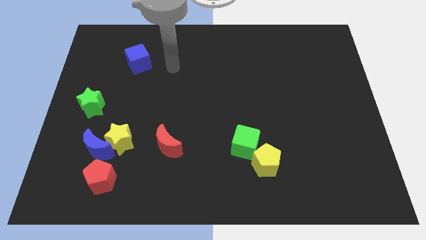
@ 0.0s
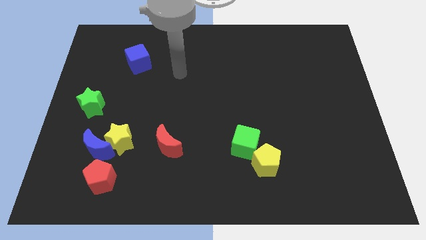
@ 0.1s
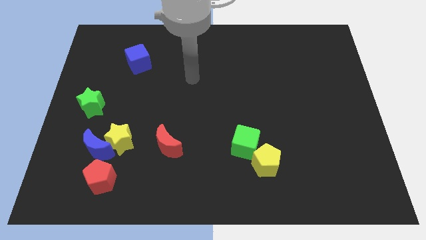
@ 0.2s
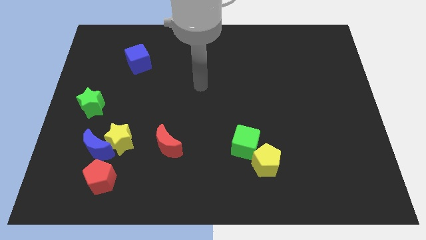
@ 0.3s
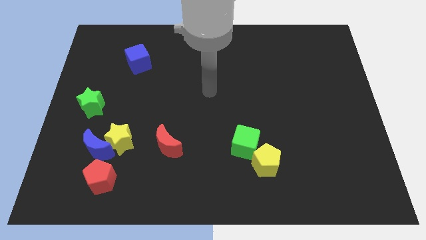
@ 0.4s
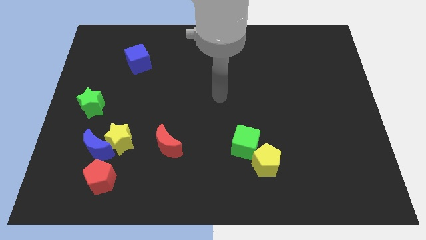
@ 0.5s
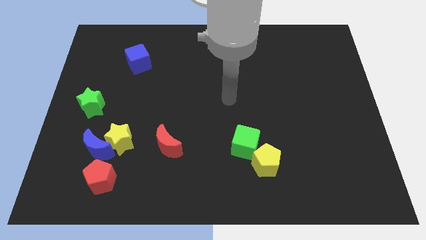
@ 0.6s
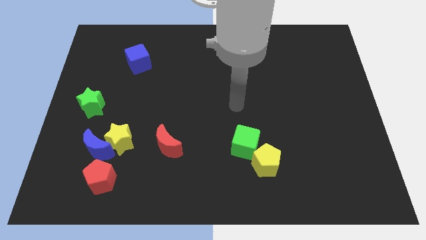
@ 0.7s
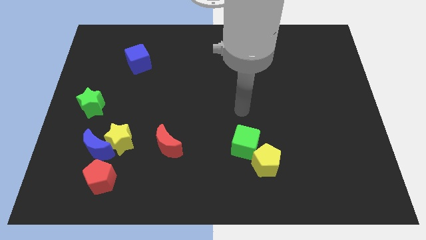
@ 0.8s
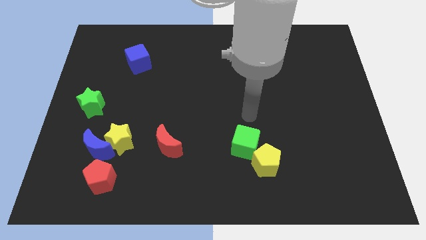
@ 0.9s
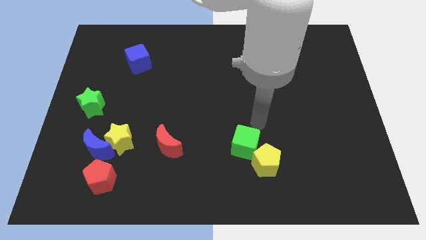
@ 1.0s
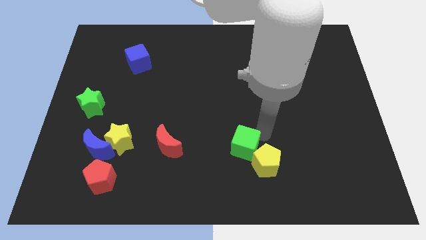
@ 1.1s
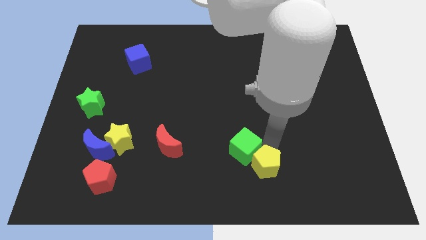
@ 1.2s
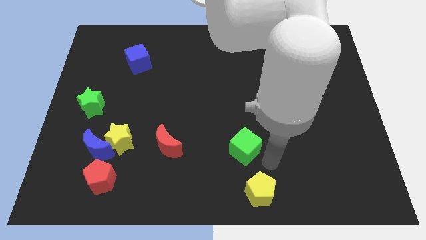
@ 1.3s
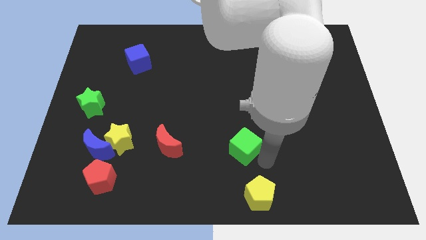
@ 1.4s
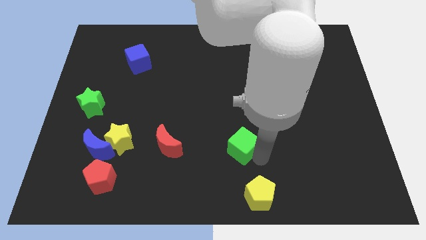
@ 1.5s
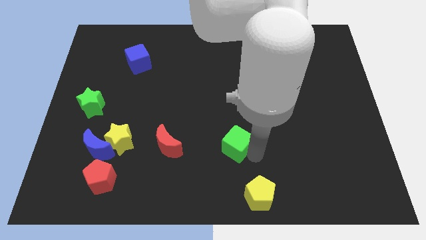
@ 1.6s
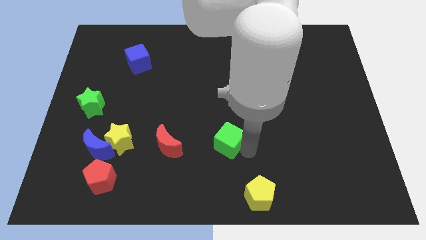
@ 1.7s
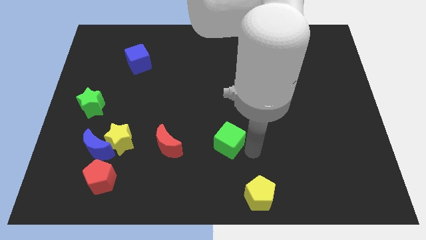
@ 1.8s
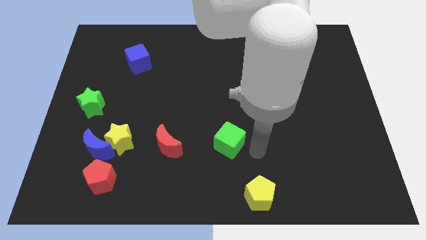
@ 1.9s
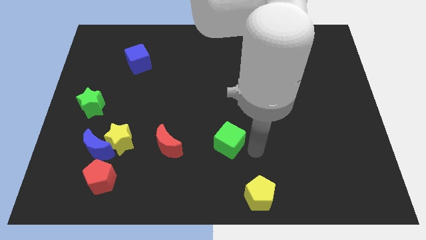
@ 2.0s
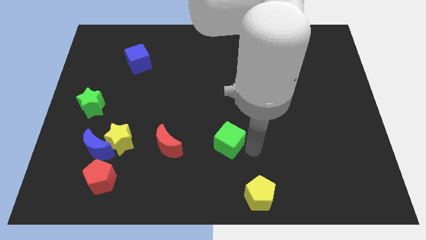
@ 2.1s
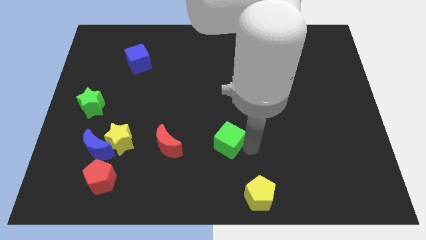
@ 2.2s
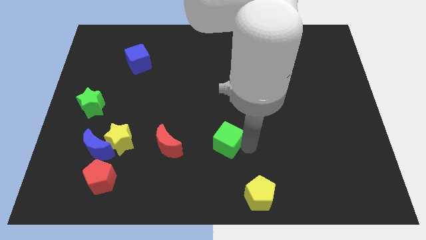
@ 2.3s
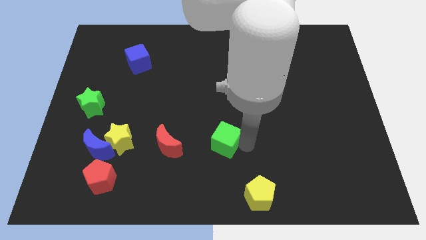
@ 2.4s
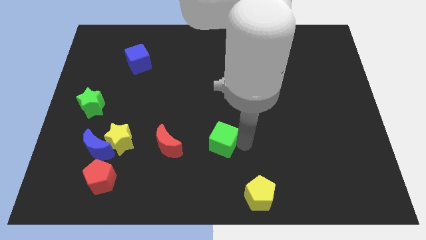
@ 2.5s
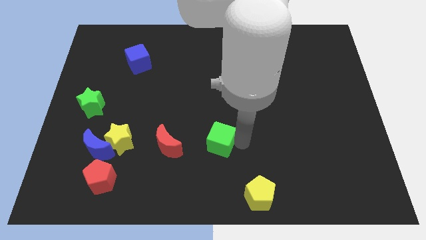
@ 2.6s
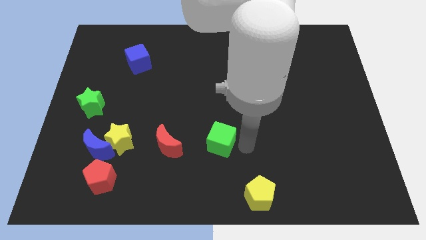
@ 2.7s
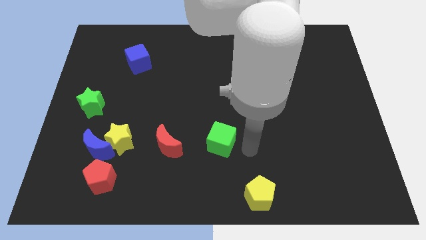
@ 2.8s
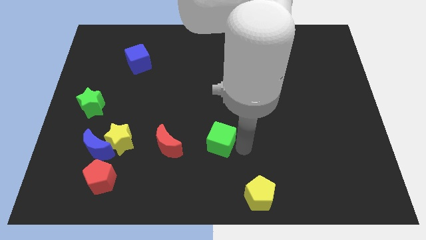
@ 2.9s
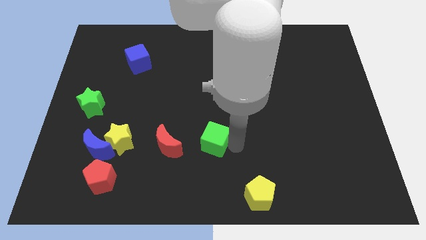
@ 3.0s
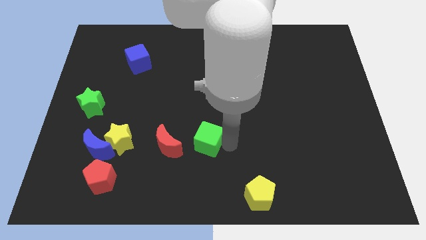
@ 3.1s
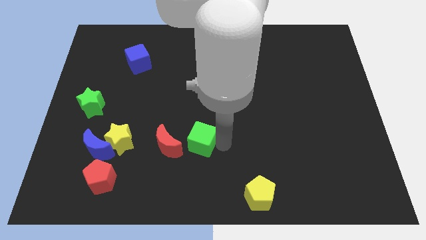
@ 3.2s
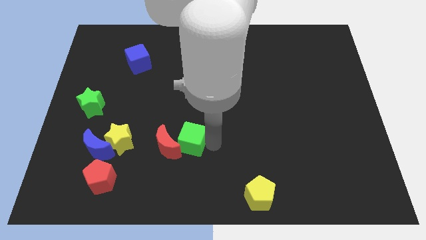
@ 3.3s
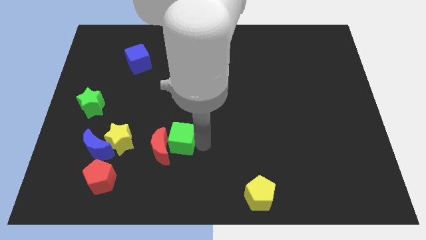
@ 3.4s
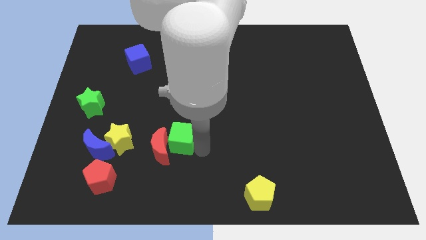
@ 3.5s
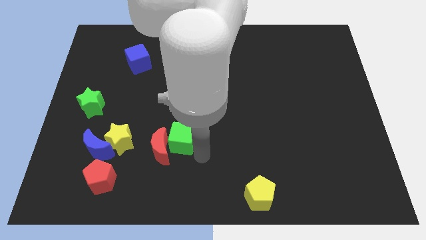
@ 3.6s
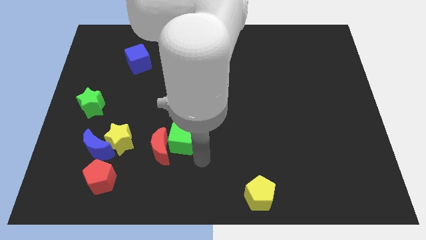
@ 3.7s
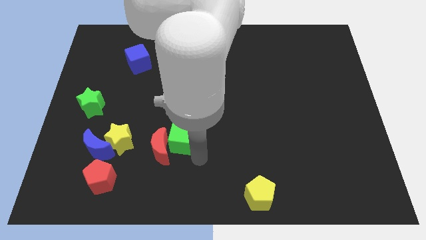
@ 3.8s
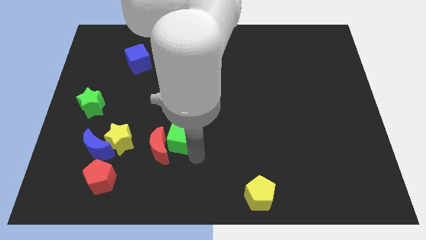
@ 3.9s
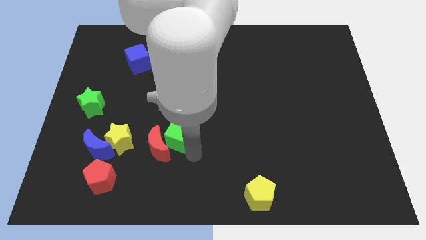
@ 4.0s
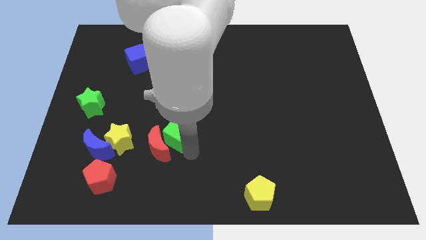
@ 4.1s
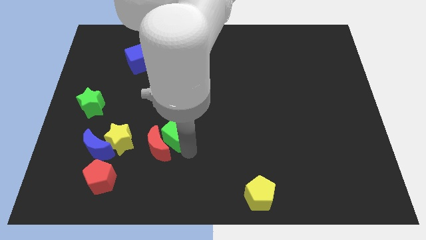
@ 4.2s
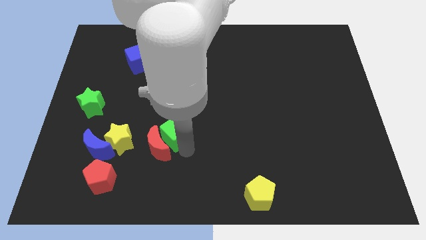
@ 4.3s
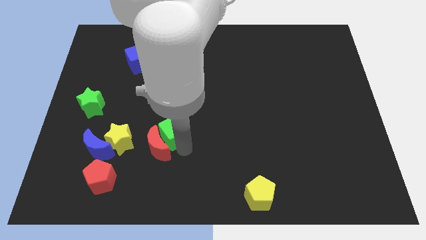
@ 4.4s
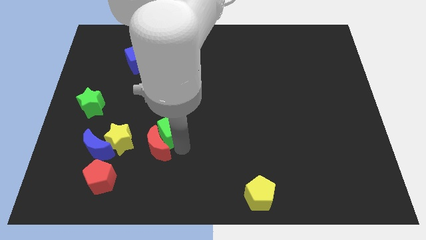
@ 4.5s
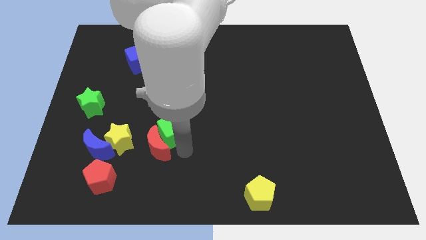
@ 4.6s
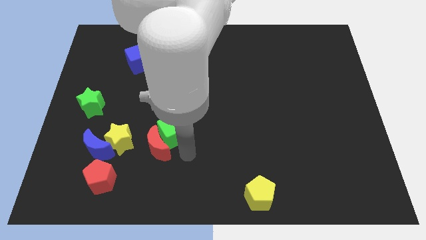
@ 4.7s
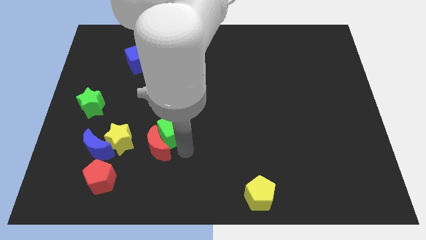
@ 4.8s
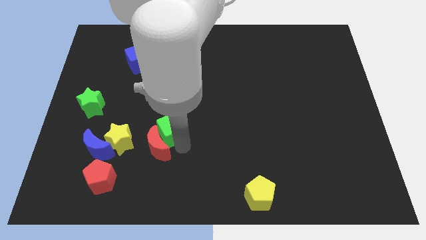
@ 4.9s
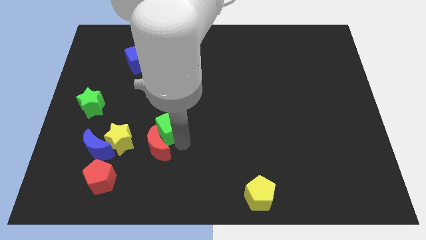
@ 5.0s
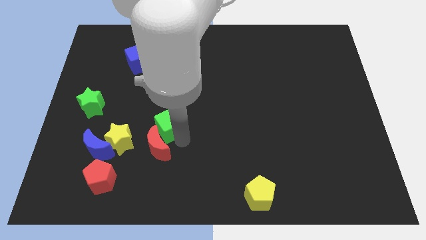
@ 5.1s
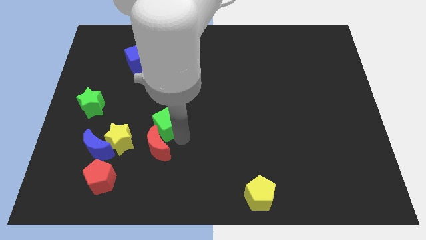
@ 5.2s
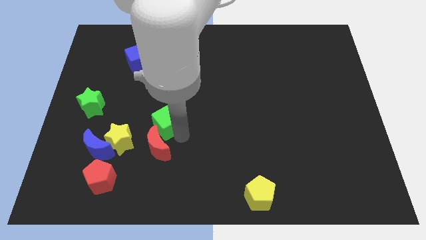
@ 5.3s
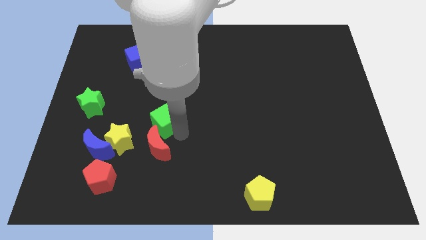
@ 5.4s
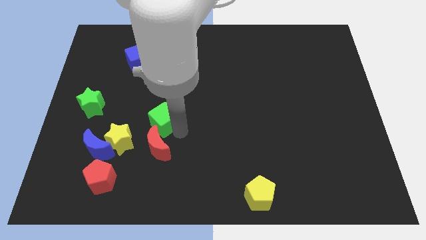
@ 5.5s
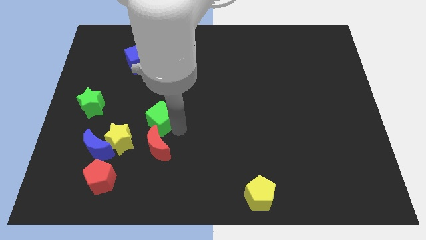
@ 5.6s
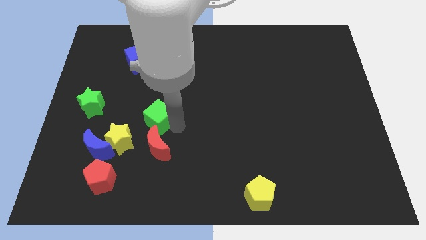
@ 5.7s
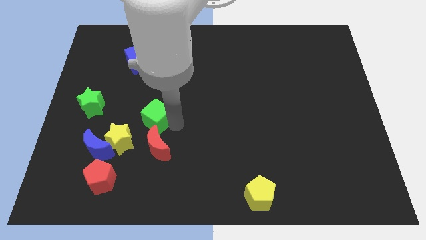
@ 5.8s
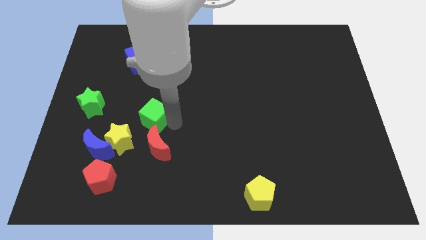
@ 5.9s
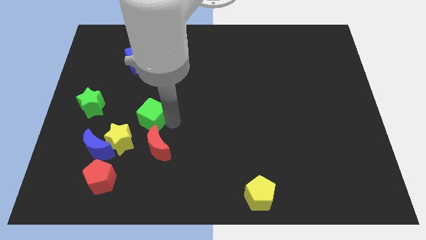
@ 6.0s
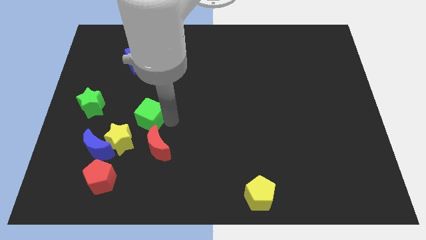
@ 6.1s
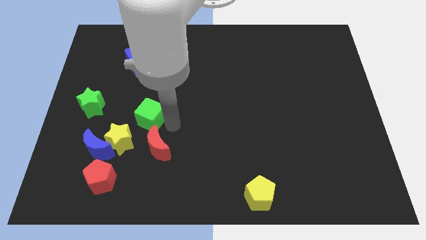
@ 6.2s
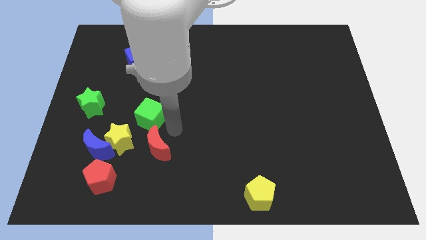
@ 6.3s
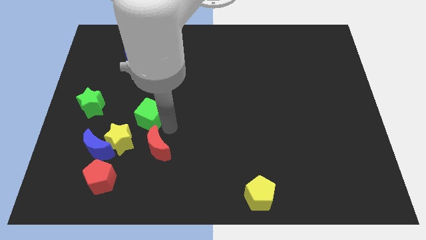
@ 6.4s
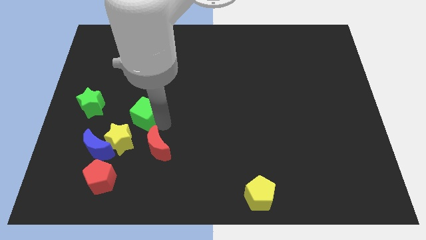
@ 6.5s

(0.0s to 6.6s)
push the green cube to the top side of the yellow star

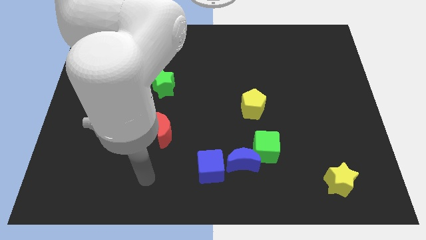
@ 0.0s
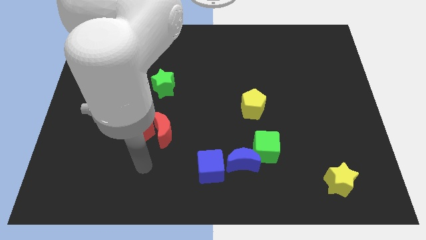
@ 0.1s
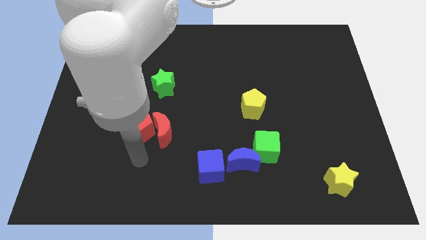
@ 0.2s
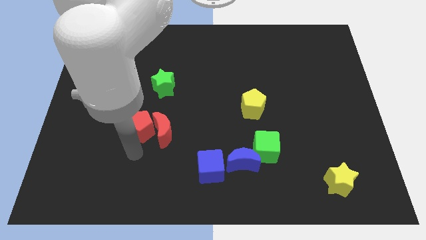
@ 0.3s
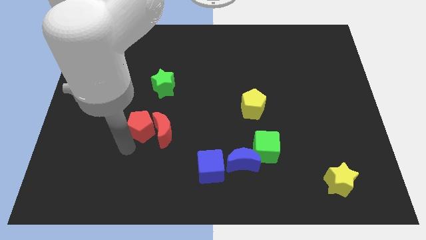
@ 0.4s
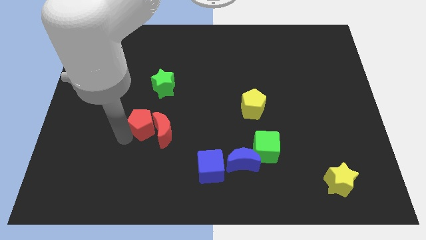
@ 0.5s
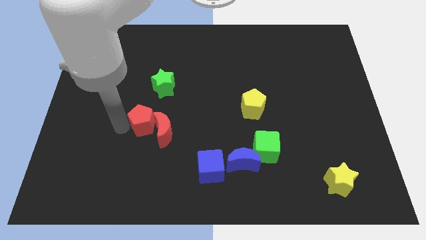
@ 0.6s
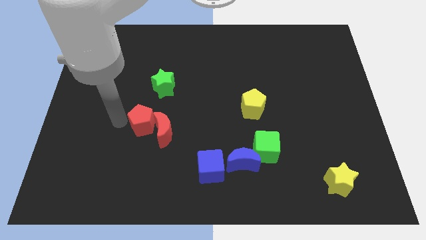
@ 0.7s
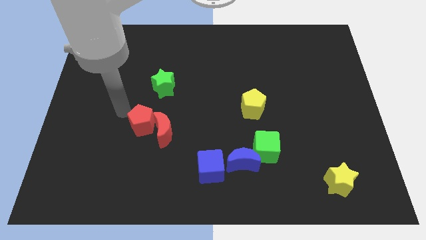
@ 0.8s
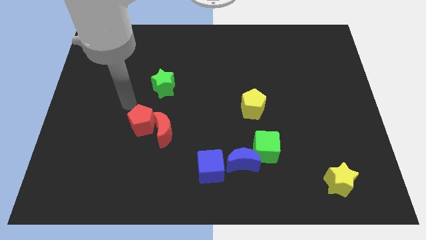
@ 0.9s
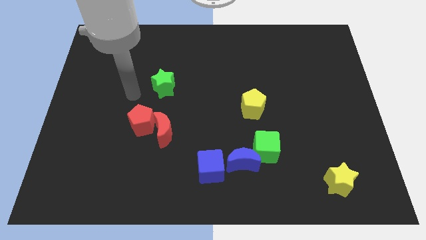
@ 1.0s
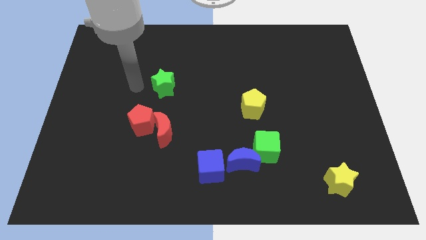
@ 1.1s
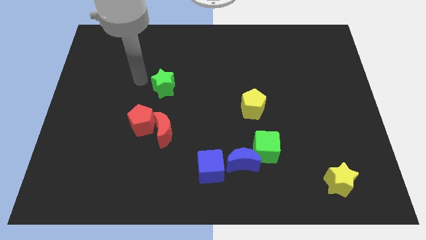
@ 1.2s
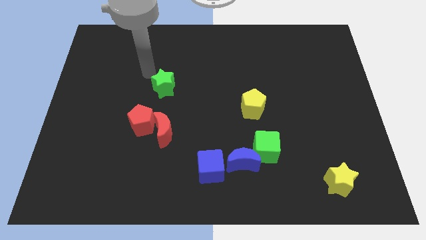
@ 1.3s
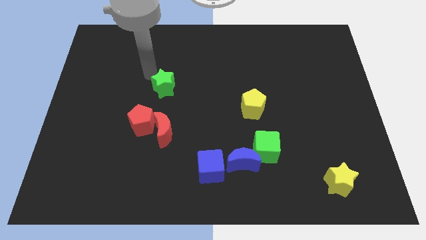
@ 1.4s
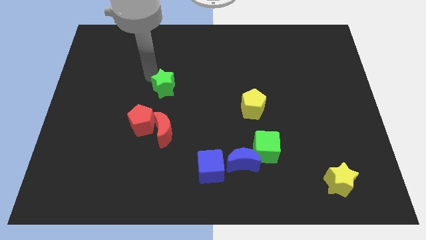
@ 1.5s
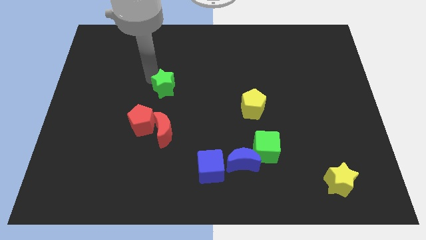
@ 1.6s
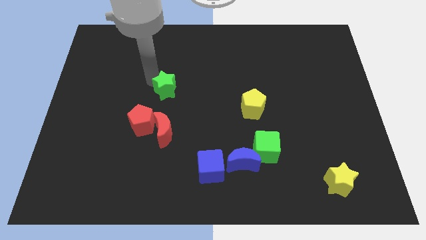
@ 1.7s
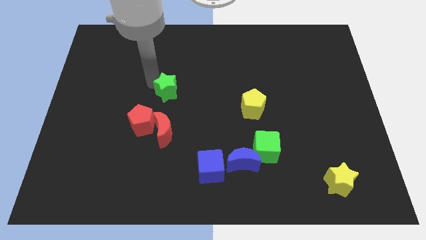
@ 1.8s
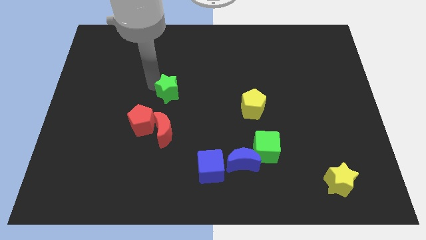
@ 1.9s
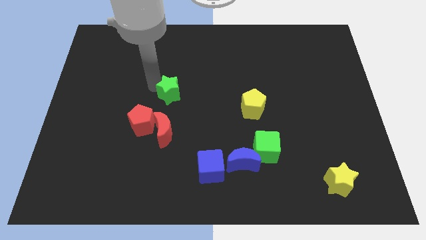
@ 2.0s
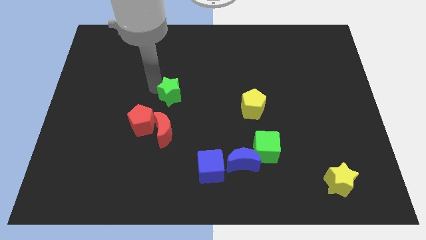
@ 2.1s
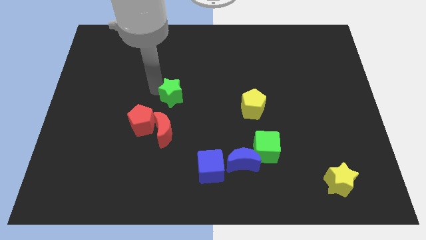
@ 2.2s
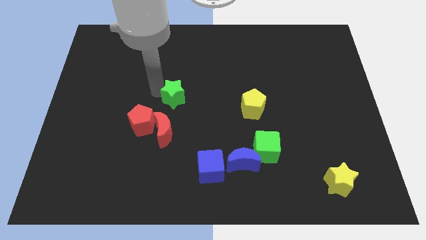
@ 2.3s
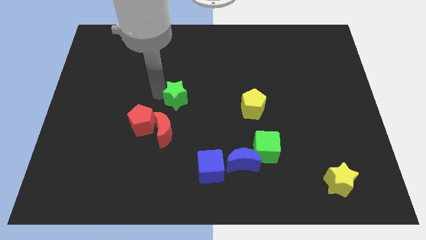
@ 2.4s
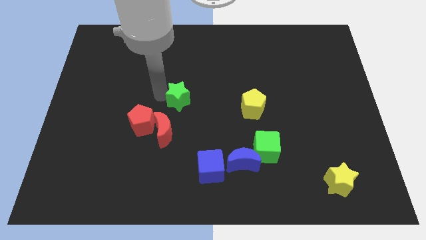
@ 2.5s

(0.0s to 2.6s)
slide the green star diagonally up and to the right of the red moon
